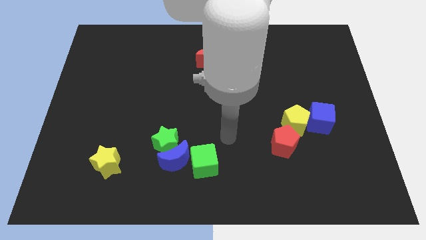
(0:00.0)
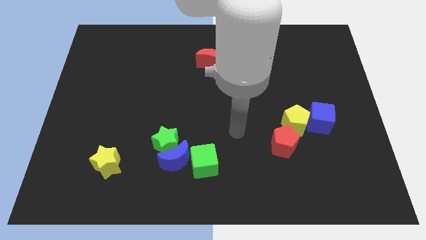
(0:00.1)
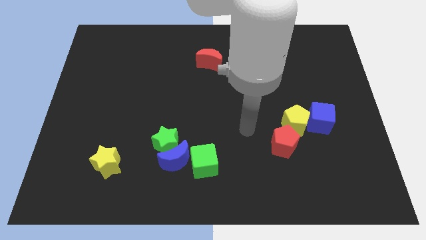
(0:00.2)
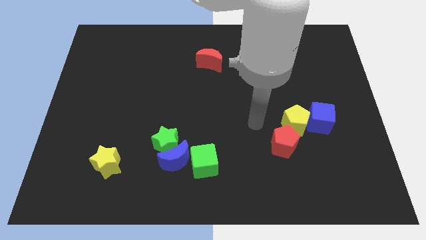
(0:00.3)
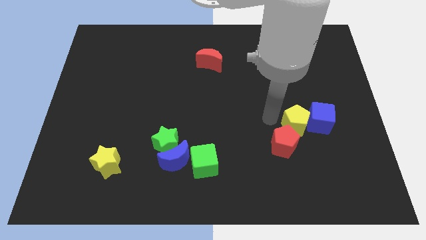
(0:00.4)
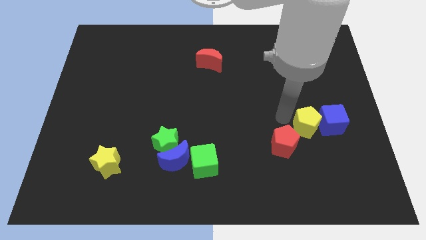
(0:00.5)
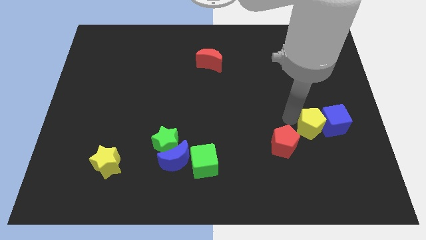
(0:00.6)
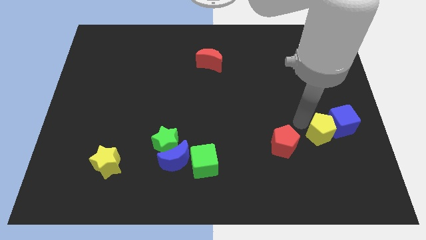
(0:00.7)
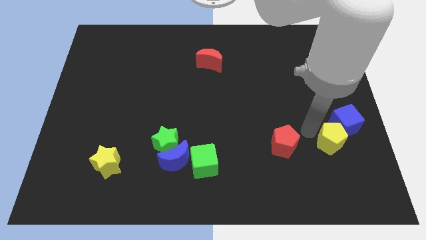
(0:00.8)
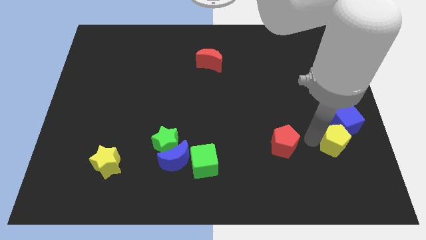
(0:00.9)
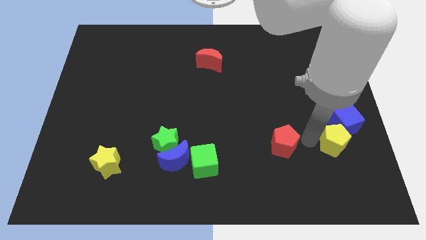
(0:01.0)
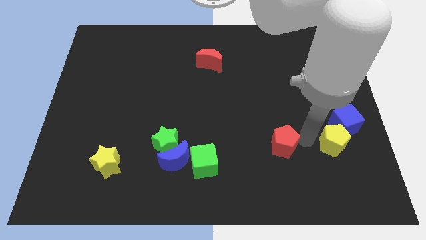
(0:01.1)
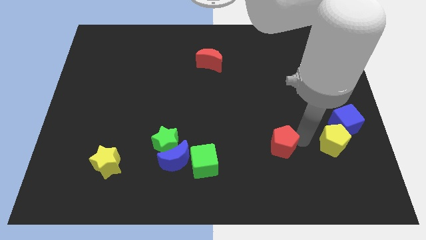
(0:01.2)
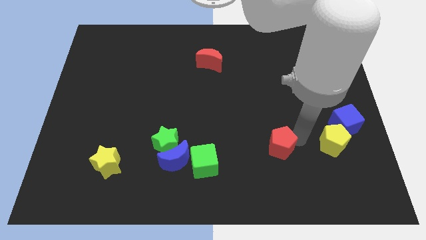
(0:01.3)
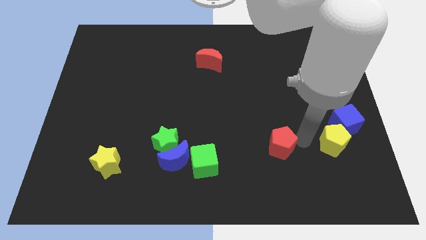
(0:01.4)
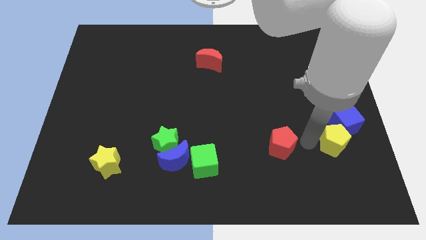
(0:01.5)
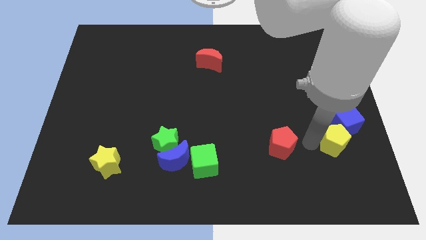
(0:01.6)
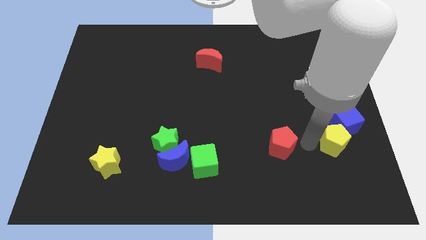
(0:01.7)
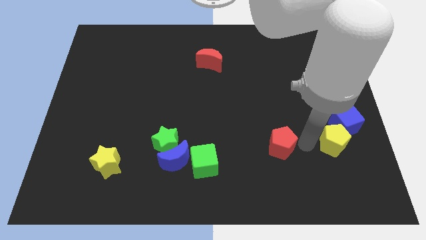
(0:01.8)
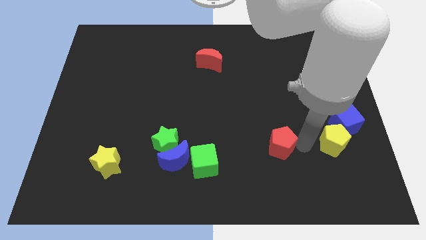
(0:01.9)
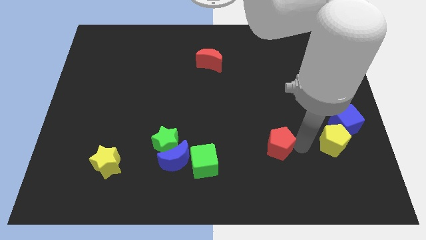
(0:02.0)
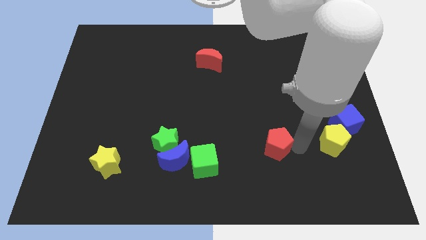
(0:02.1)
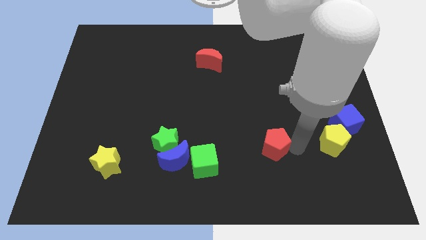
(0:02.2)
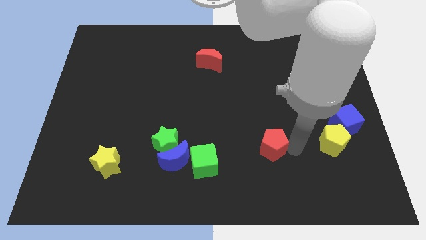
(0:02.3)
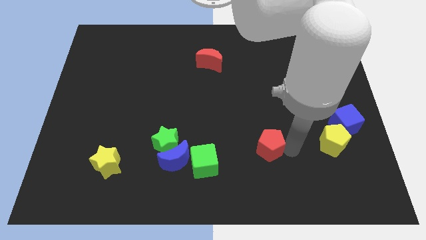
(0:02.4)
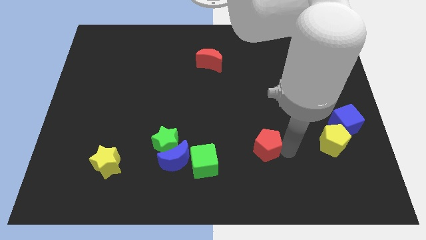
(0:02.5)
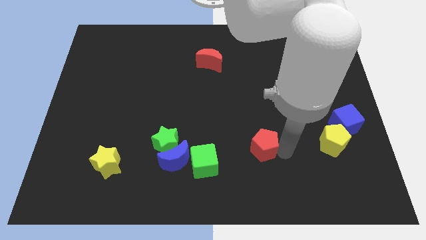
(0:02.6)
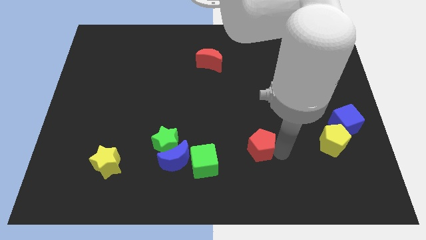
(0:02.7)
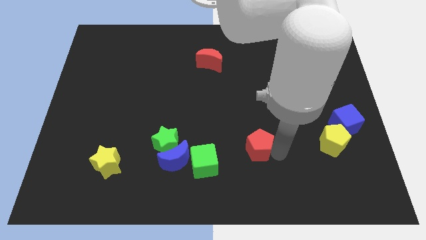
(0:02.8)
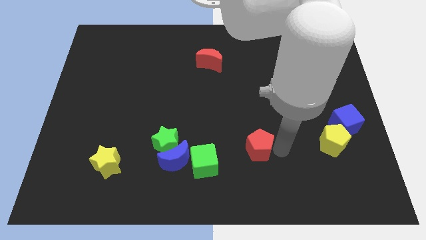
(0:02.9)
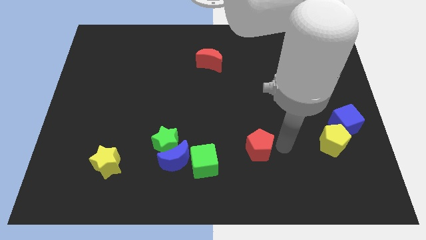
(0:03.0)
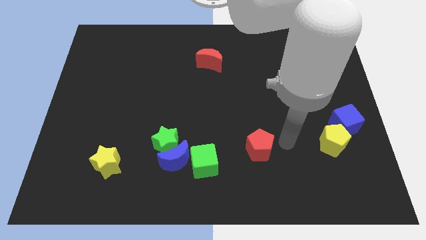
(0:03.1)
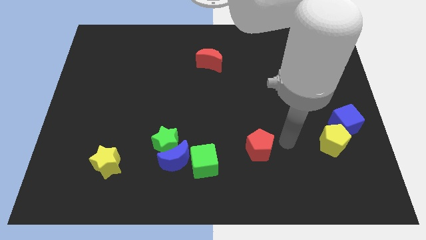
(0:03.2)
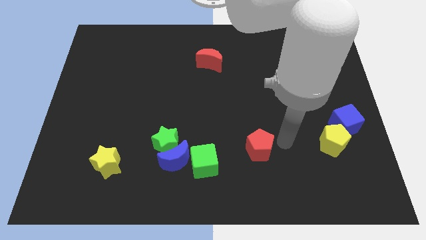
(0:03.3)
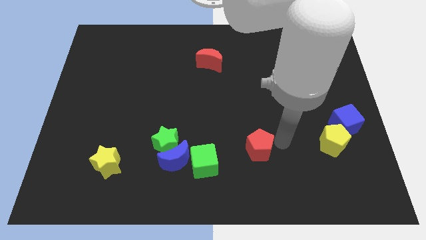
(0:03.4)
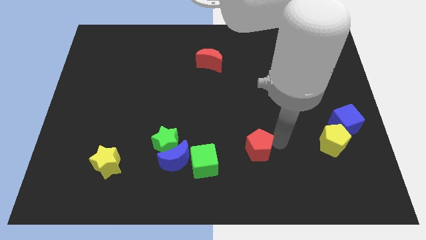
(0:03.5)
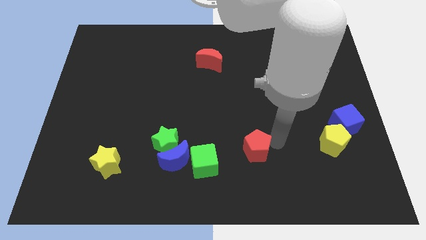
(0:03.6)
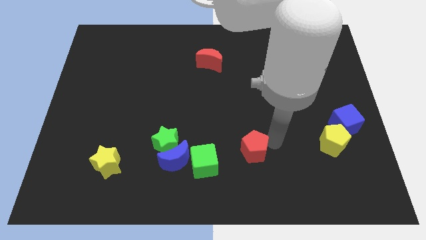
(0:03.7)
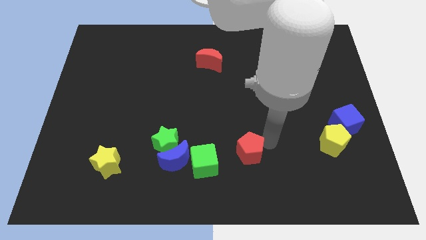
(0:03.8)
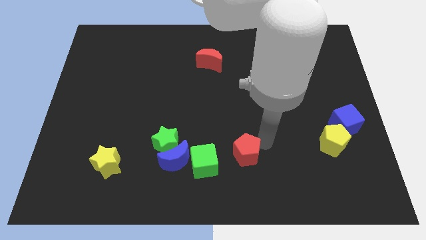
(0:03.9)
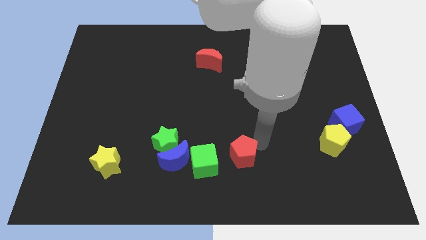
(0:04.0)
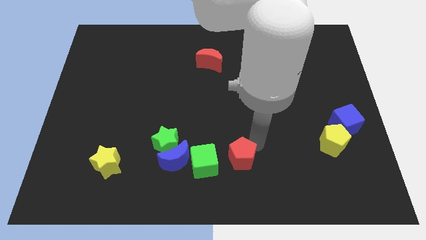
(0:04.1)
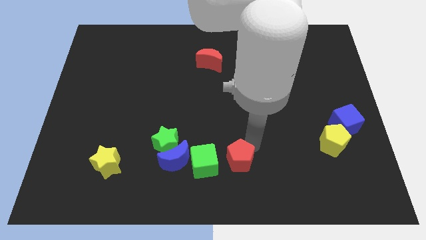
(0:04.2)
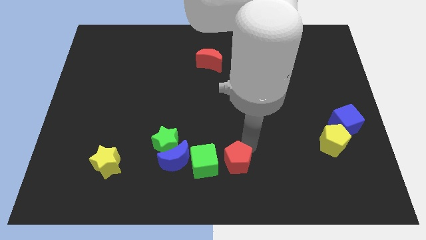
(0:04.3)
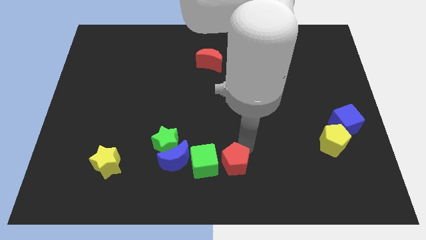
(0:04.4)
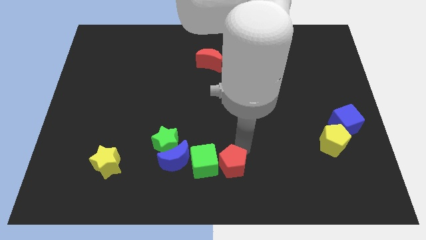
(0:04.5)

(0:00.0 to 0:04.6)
move the red pentagon towards the green cube

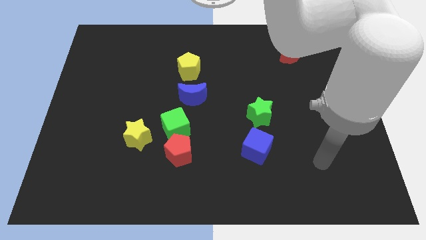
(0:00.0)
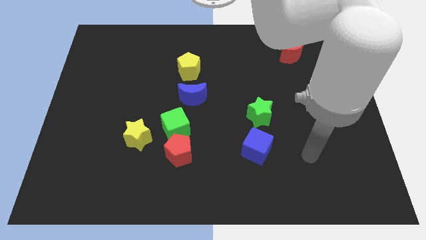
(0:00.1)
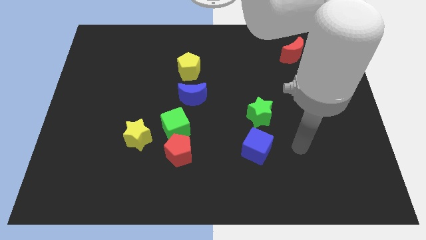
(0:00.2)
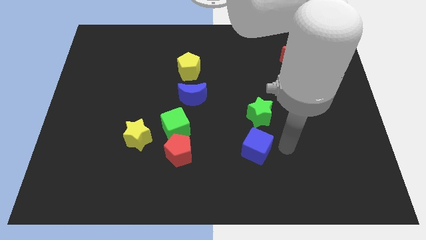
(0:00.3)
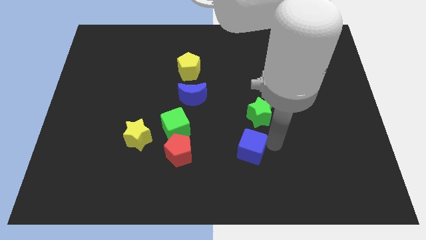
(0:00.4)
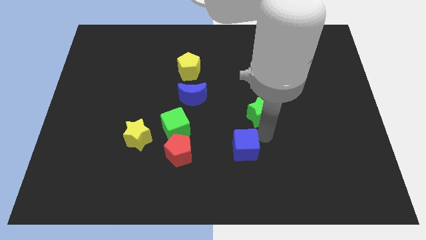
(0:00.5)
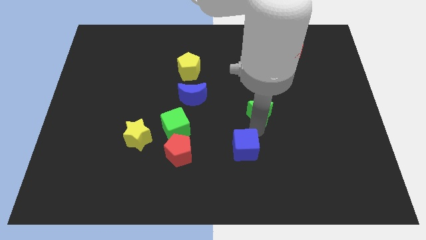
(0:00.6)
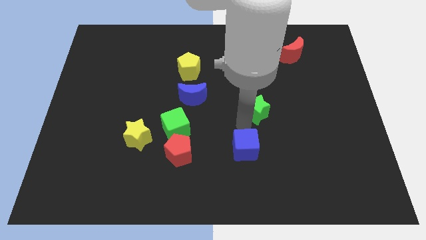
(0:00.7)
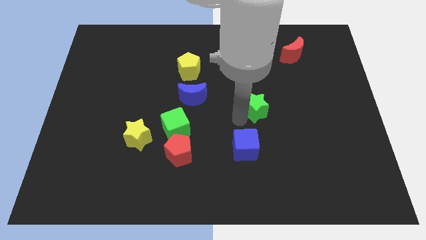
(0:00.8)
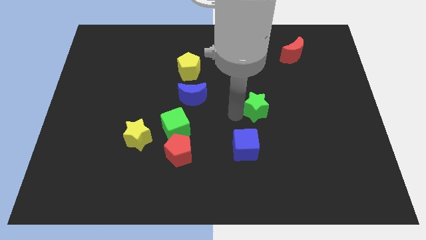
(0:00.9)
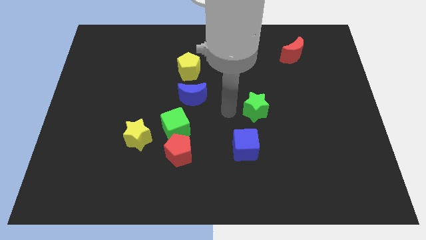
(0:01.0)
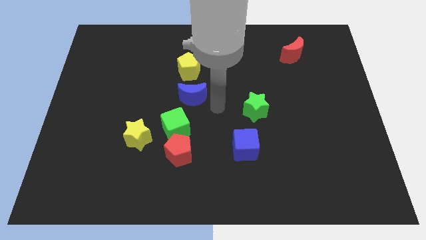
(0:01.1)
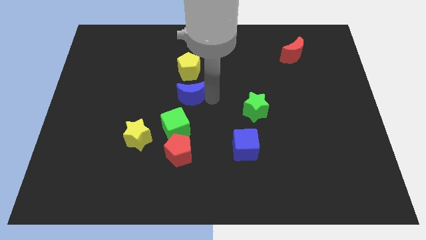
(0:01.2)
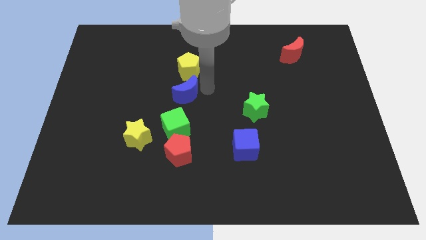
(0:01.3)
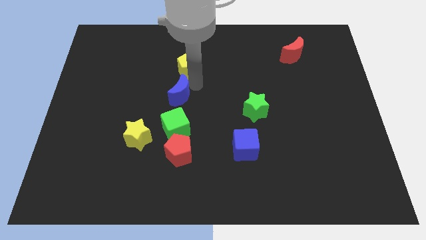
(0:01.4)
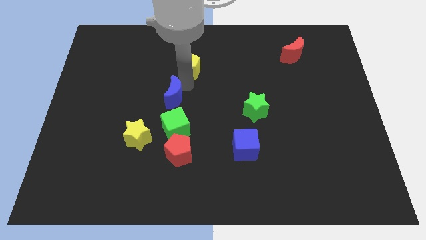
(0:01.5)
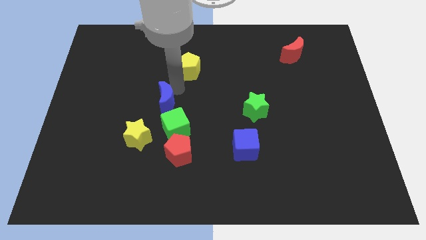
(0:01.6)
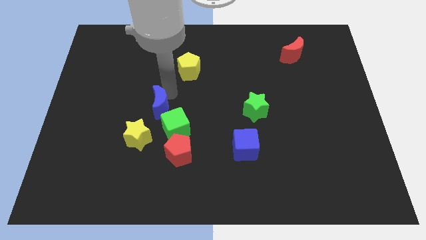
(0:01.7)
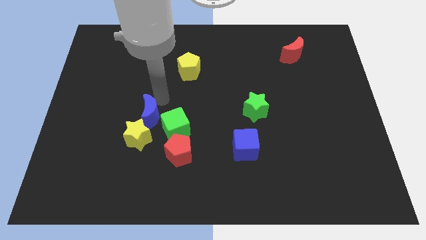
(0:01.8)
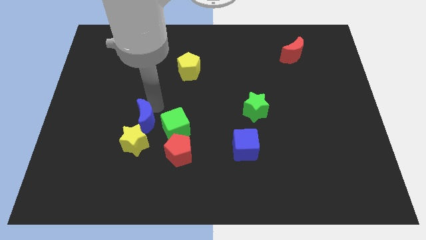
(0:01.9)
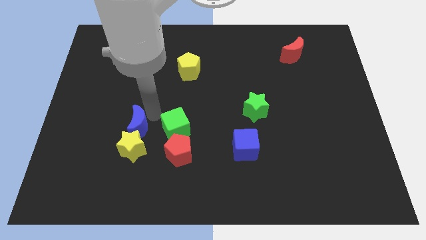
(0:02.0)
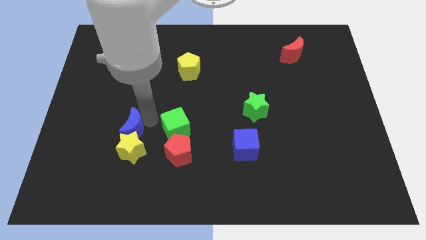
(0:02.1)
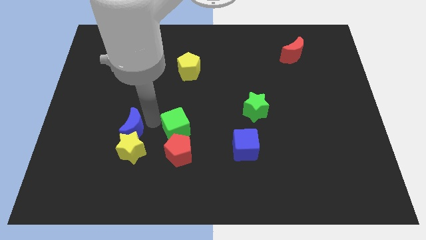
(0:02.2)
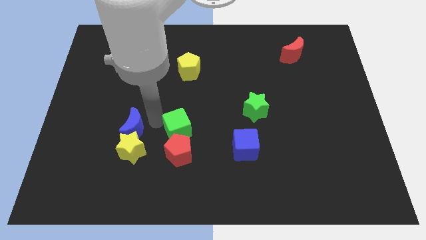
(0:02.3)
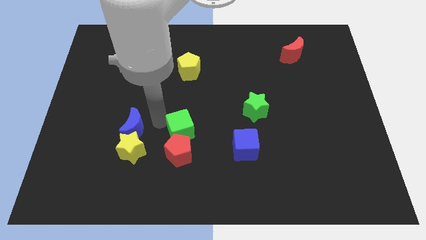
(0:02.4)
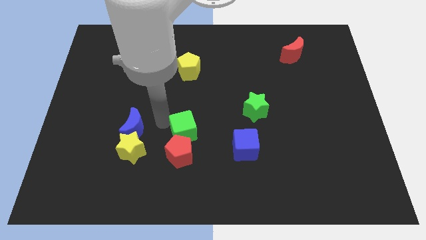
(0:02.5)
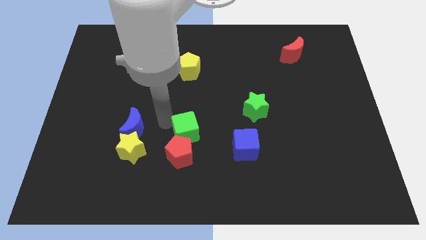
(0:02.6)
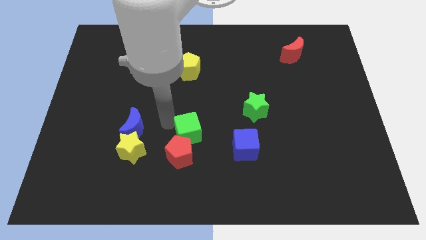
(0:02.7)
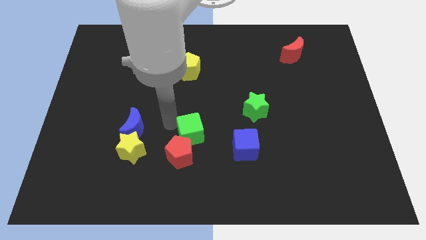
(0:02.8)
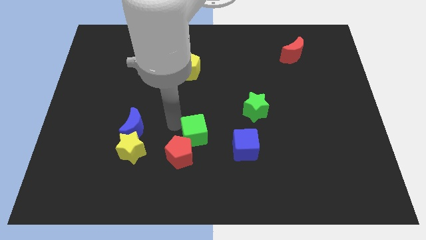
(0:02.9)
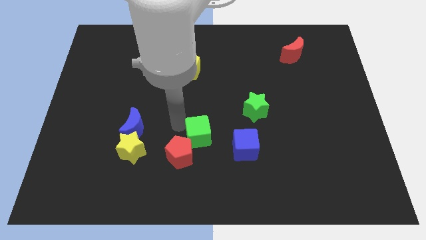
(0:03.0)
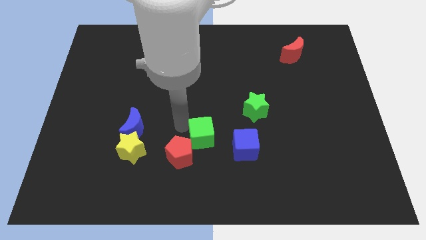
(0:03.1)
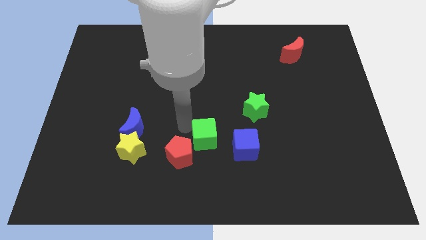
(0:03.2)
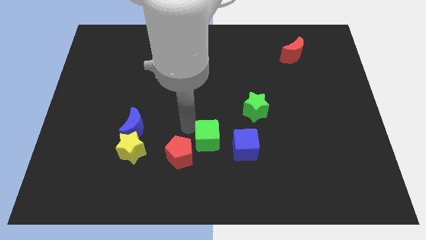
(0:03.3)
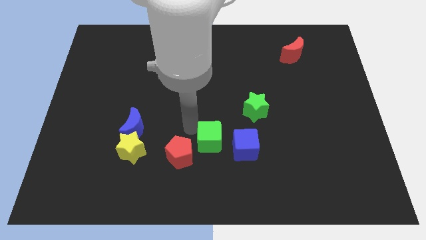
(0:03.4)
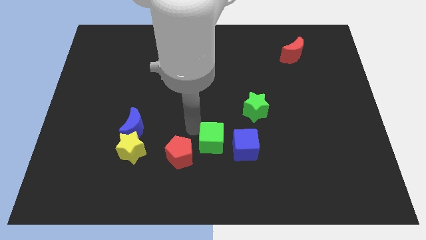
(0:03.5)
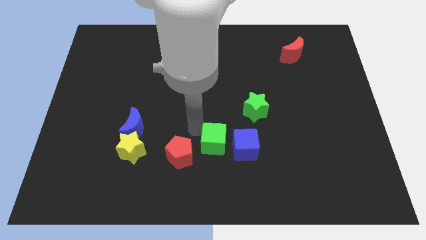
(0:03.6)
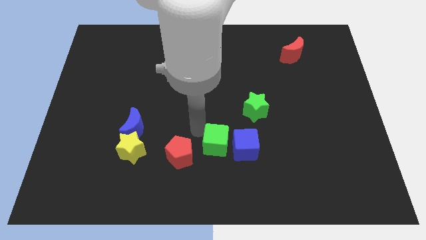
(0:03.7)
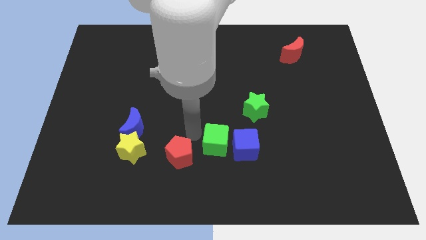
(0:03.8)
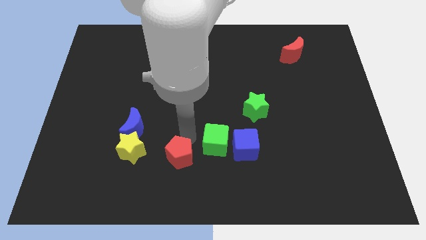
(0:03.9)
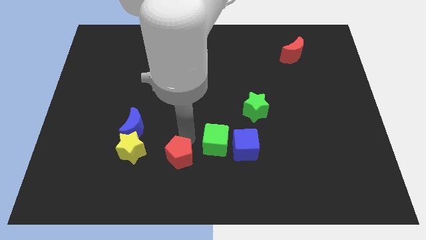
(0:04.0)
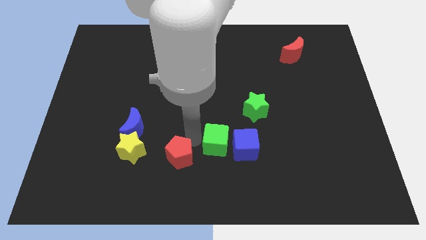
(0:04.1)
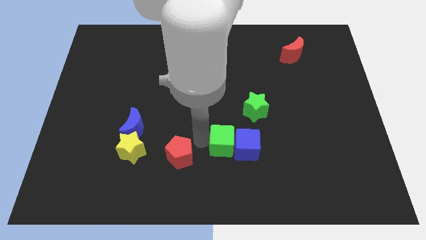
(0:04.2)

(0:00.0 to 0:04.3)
put the green cube to the blue cube
